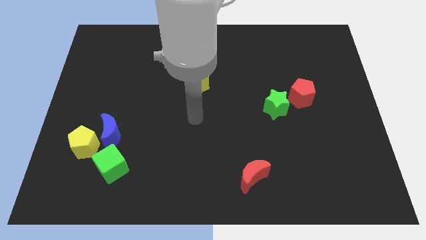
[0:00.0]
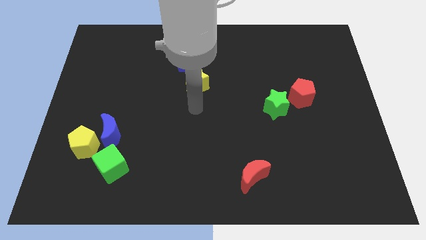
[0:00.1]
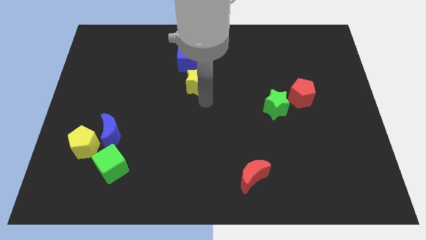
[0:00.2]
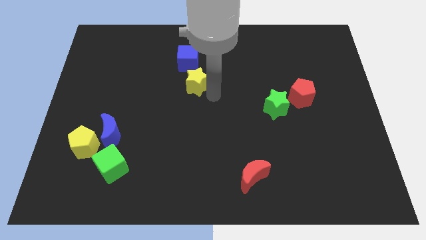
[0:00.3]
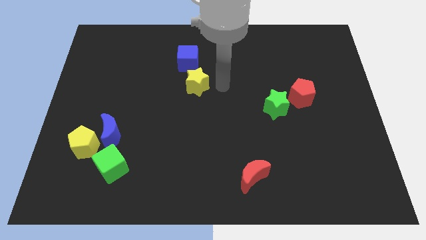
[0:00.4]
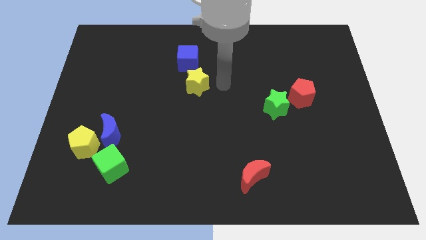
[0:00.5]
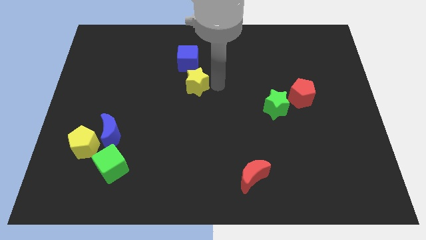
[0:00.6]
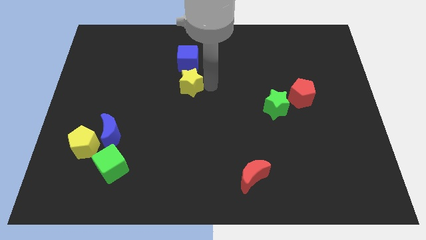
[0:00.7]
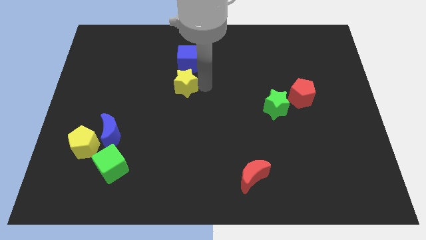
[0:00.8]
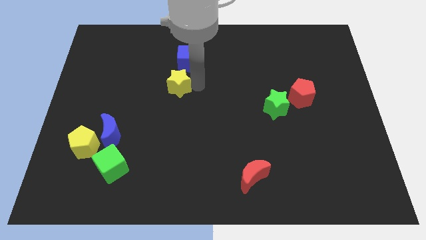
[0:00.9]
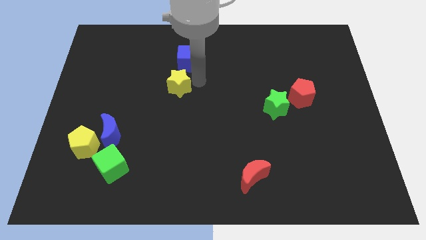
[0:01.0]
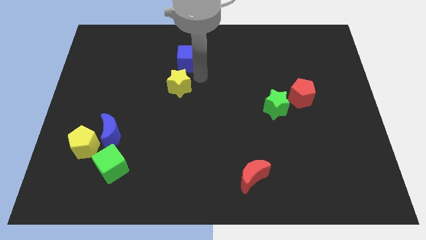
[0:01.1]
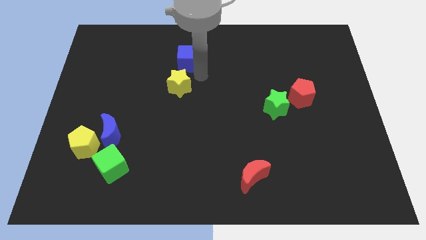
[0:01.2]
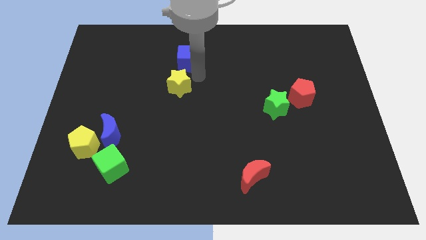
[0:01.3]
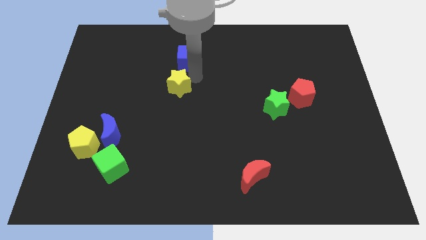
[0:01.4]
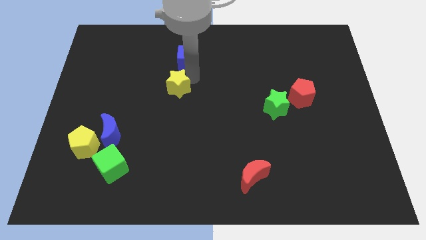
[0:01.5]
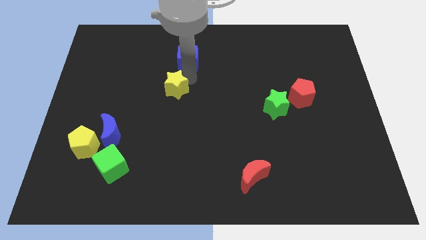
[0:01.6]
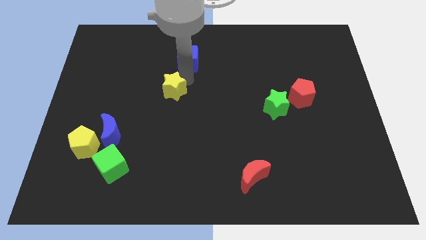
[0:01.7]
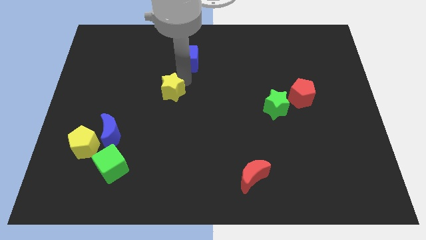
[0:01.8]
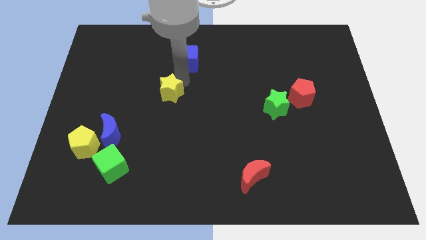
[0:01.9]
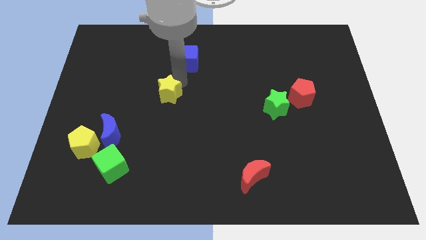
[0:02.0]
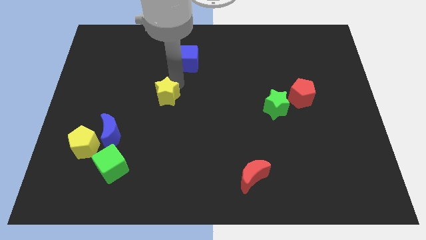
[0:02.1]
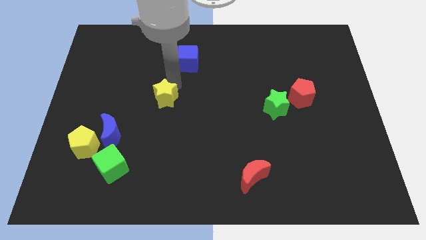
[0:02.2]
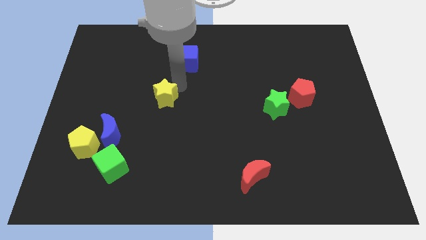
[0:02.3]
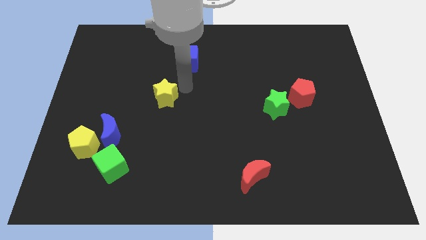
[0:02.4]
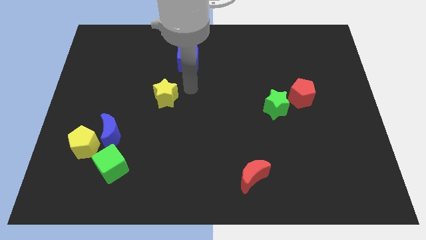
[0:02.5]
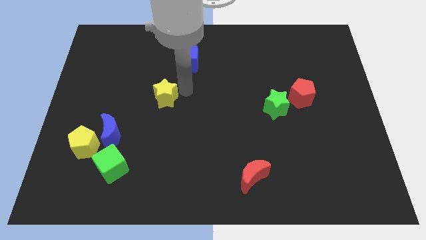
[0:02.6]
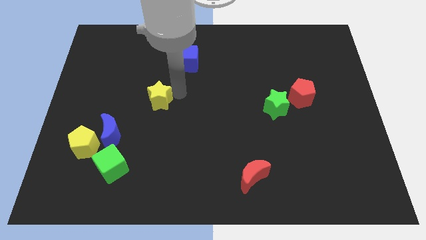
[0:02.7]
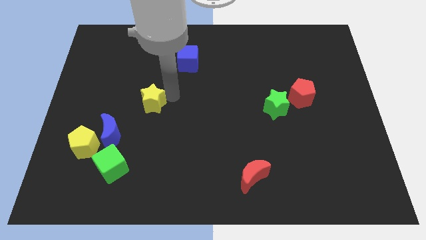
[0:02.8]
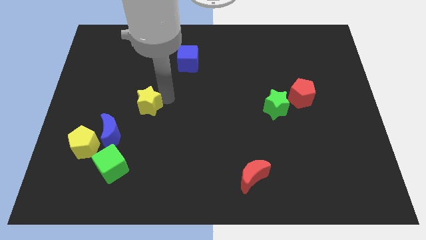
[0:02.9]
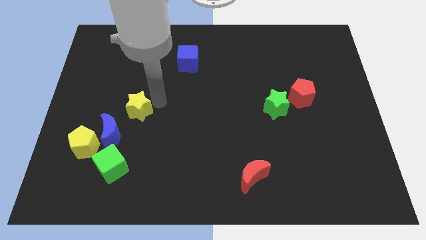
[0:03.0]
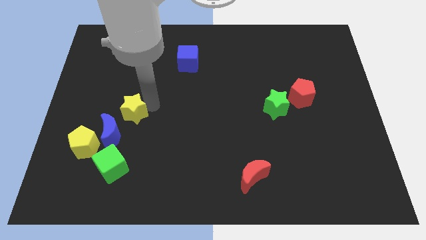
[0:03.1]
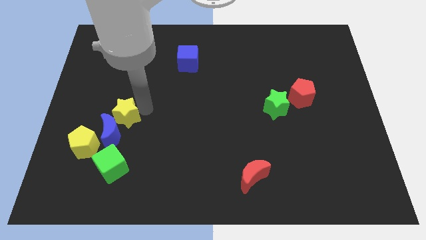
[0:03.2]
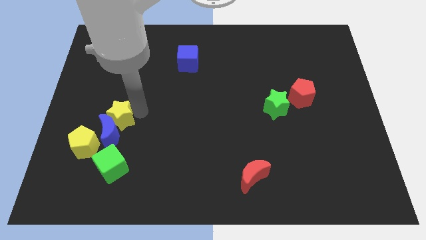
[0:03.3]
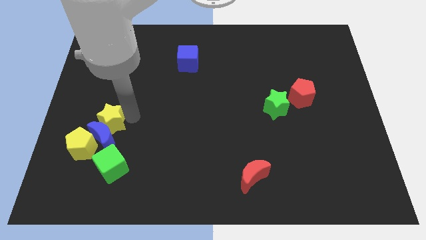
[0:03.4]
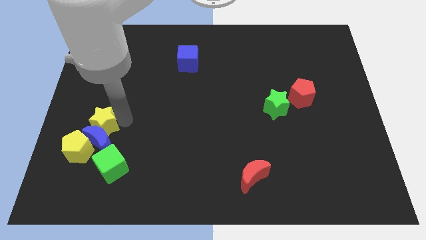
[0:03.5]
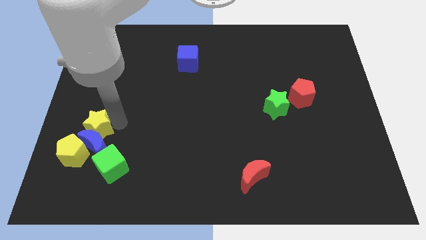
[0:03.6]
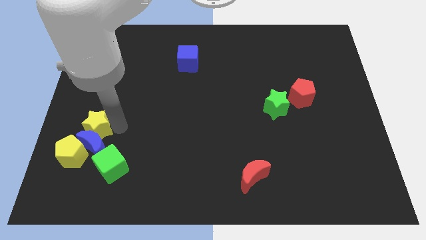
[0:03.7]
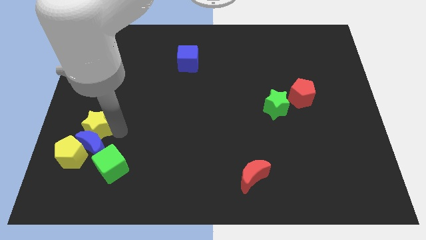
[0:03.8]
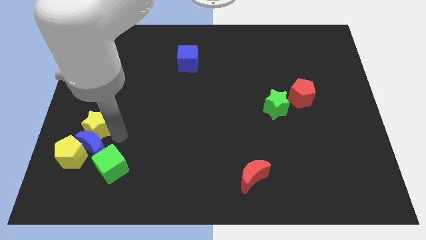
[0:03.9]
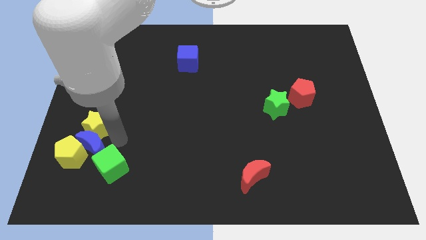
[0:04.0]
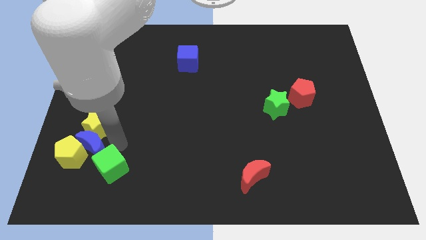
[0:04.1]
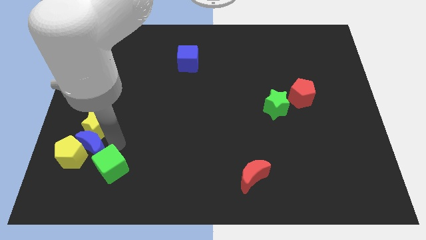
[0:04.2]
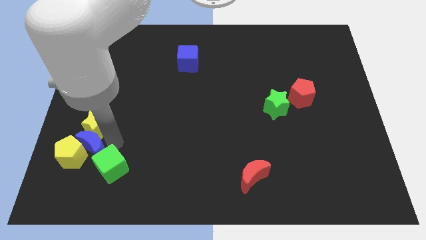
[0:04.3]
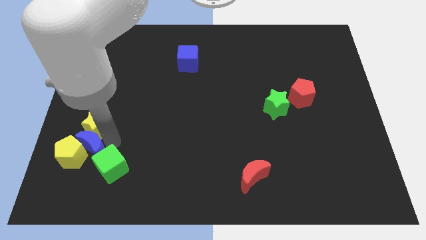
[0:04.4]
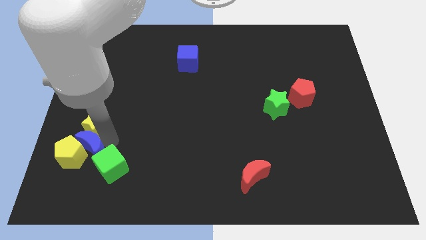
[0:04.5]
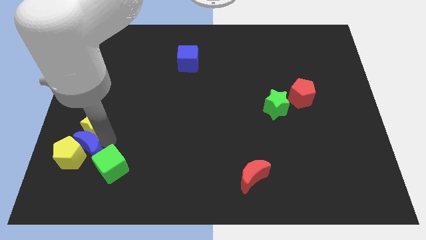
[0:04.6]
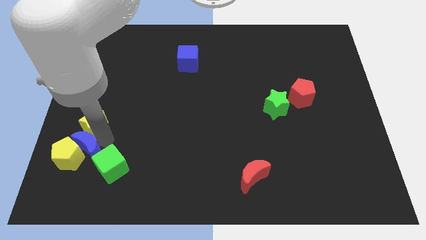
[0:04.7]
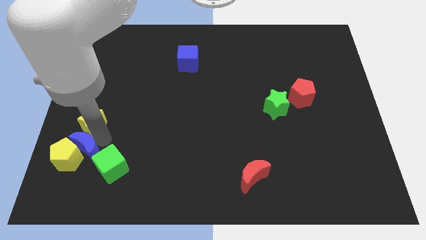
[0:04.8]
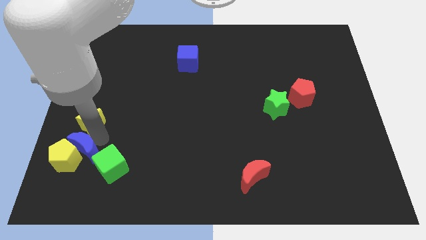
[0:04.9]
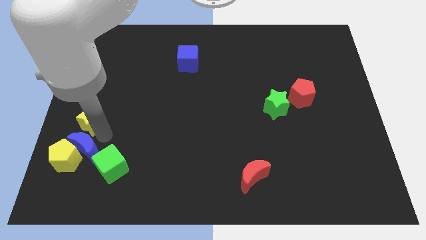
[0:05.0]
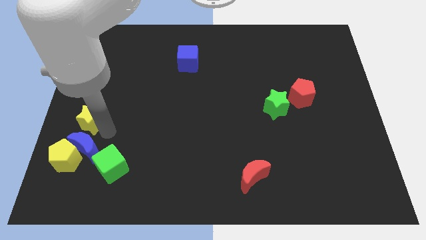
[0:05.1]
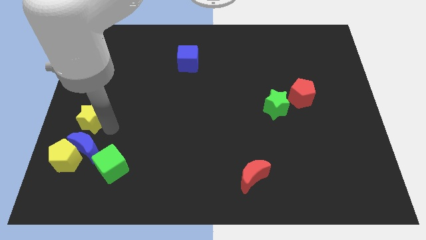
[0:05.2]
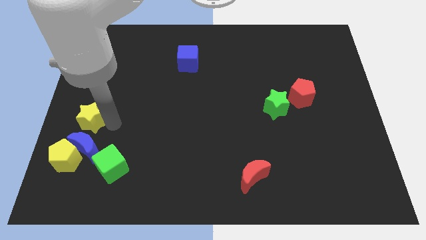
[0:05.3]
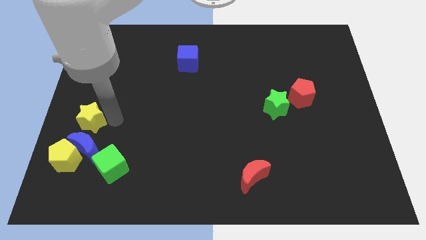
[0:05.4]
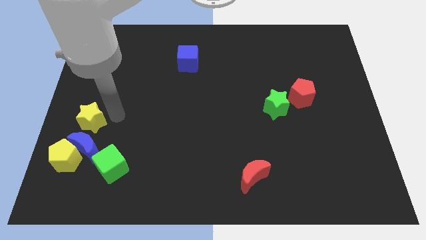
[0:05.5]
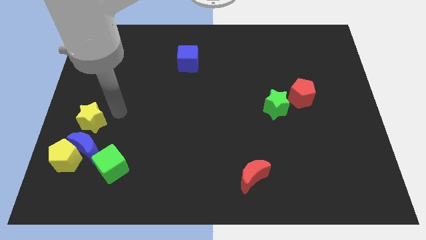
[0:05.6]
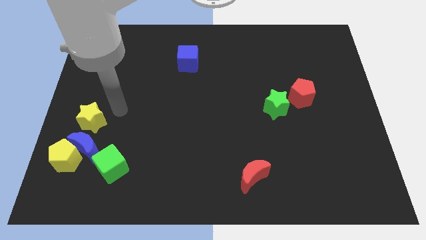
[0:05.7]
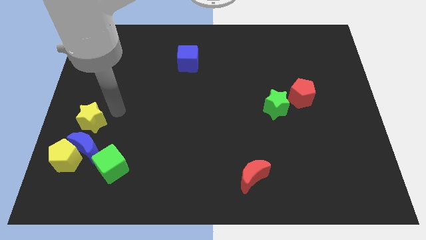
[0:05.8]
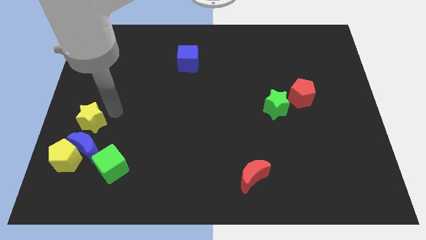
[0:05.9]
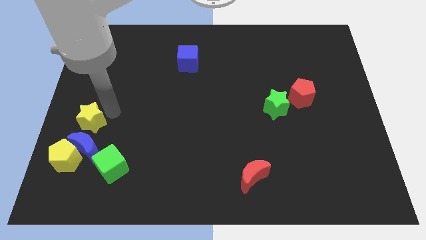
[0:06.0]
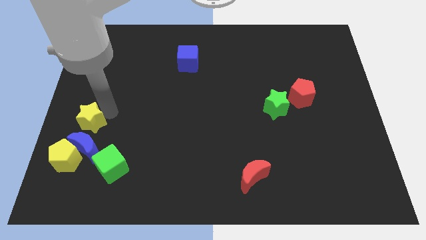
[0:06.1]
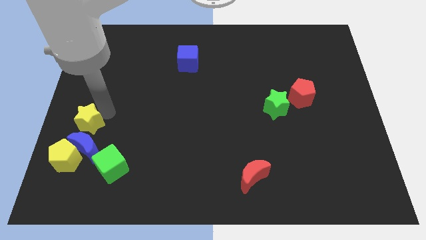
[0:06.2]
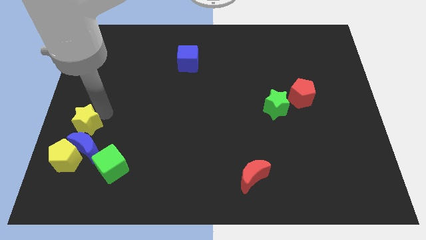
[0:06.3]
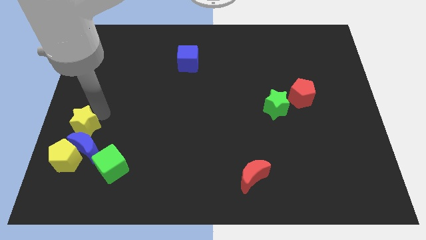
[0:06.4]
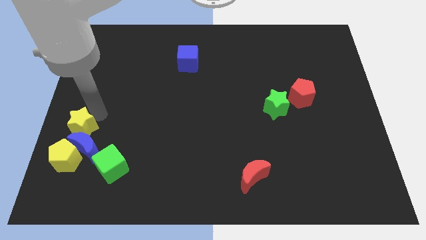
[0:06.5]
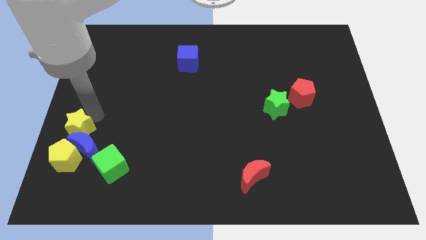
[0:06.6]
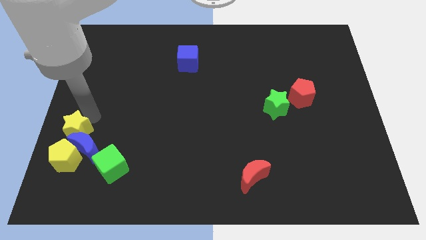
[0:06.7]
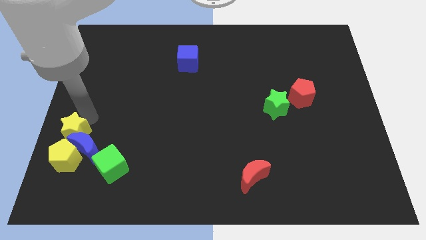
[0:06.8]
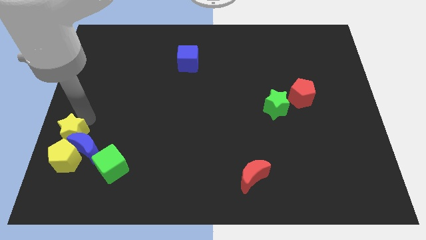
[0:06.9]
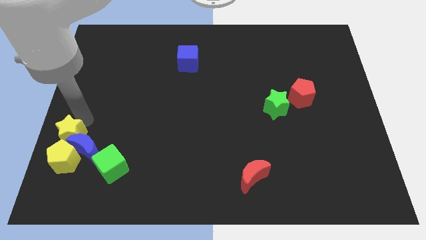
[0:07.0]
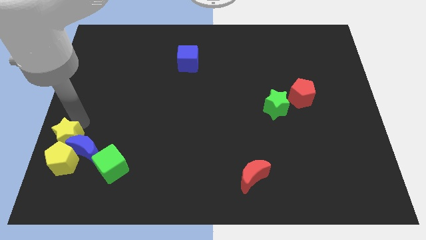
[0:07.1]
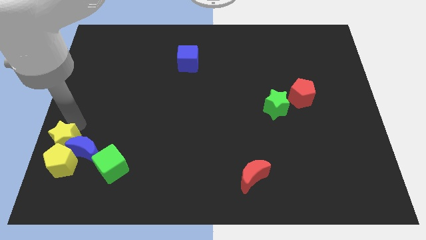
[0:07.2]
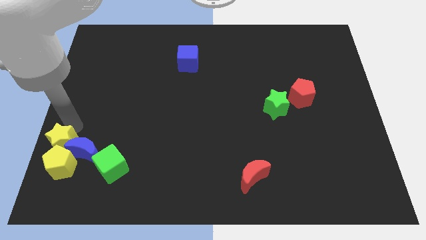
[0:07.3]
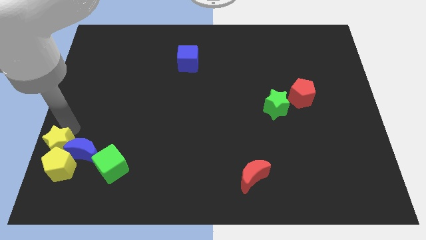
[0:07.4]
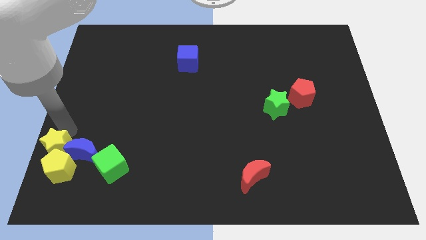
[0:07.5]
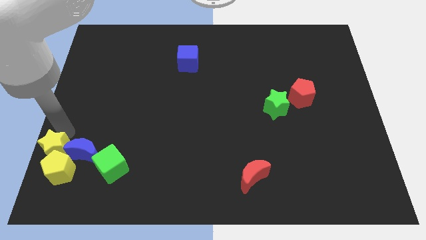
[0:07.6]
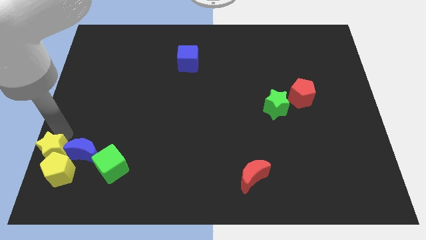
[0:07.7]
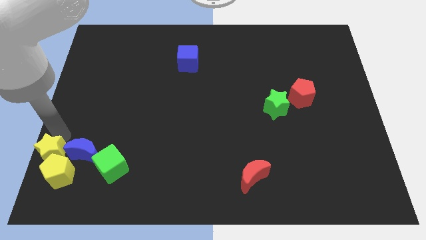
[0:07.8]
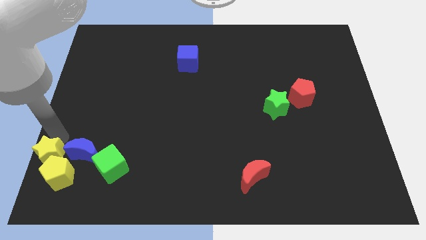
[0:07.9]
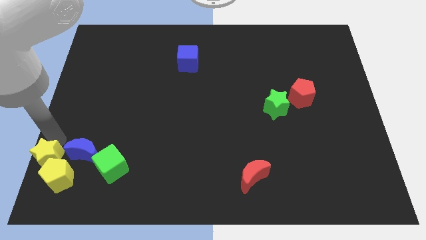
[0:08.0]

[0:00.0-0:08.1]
move the yellow star to the bottom left
